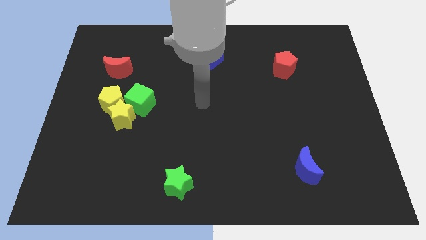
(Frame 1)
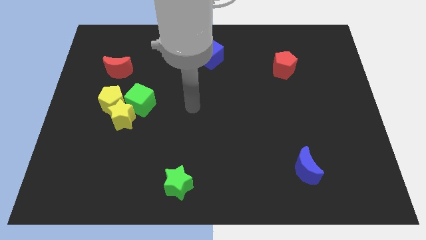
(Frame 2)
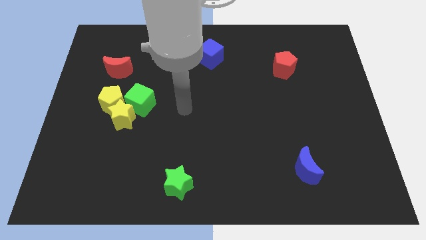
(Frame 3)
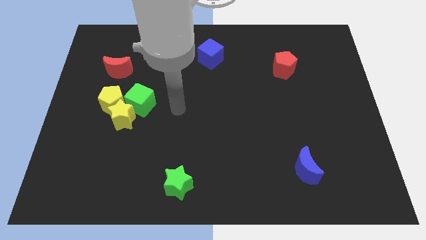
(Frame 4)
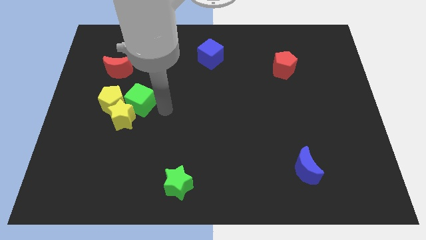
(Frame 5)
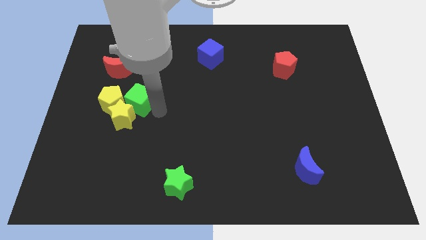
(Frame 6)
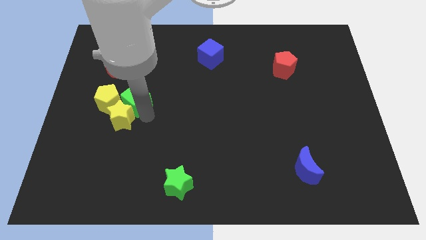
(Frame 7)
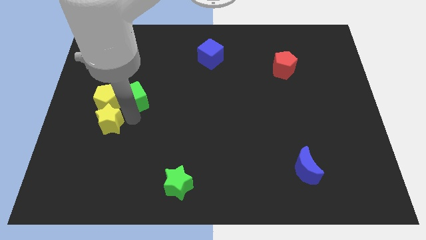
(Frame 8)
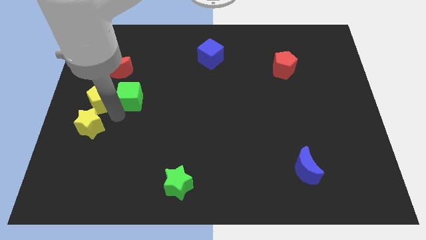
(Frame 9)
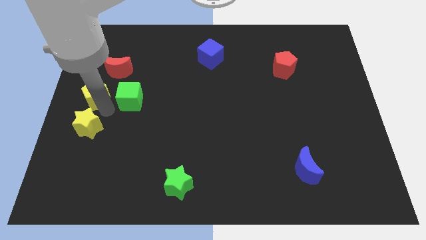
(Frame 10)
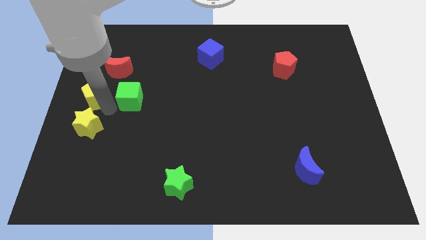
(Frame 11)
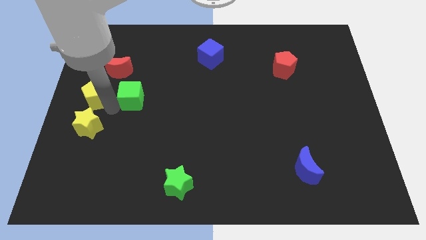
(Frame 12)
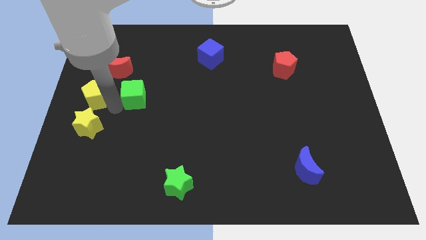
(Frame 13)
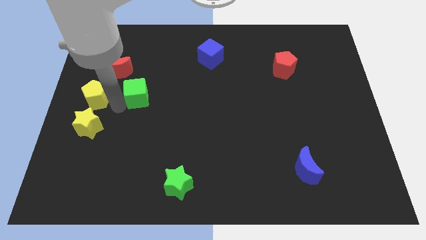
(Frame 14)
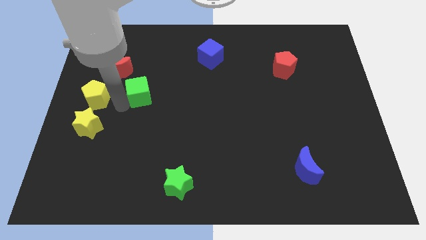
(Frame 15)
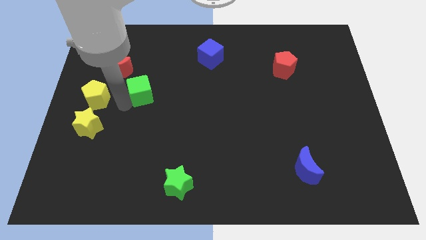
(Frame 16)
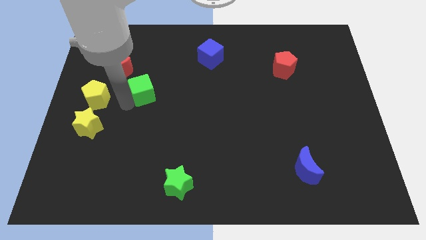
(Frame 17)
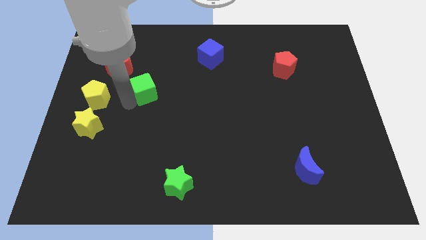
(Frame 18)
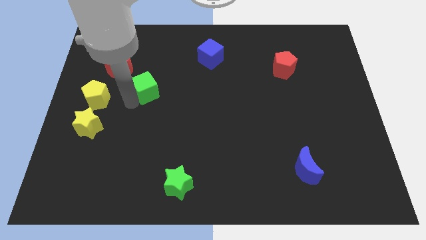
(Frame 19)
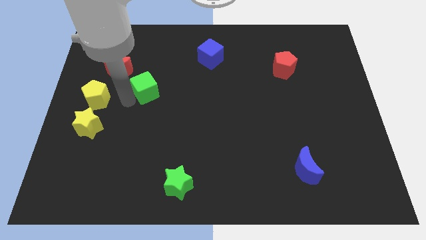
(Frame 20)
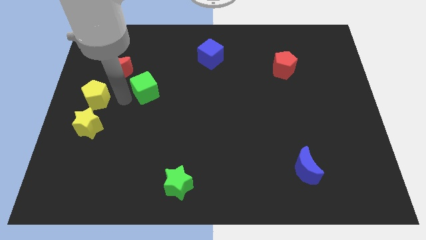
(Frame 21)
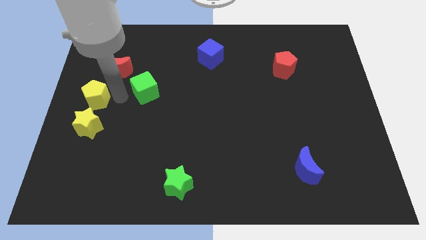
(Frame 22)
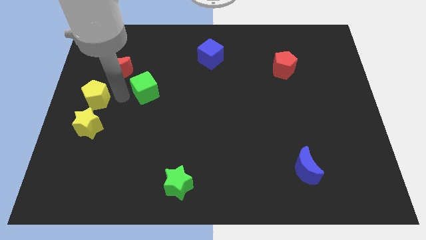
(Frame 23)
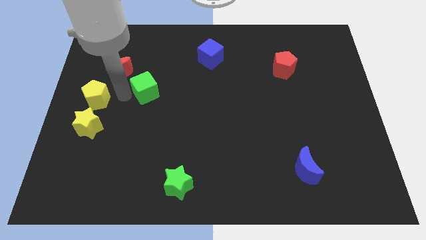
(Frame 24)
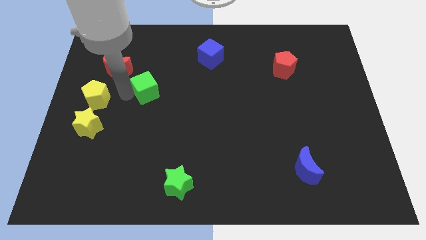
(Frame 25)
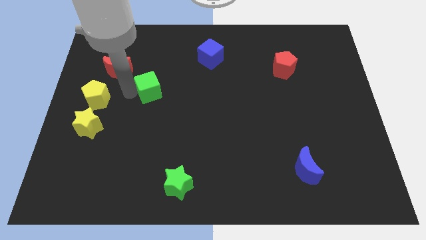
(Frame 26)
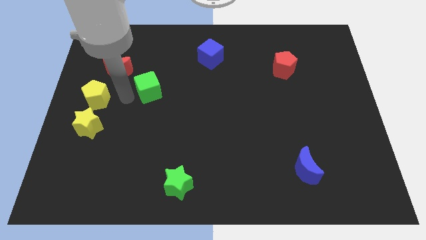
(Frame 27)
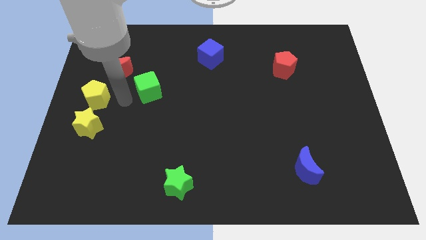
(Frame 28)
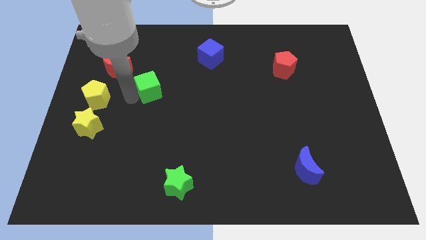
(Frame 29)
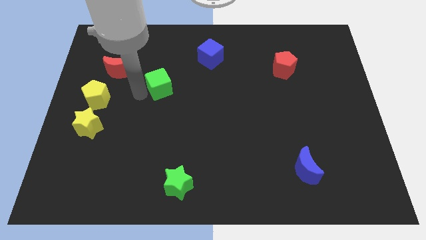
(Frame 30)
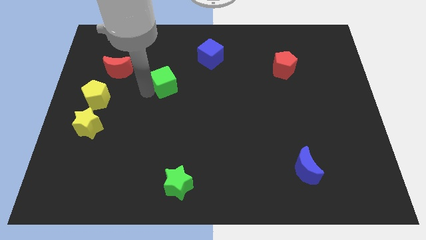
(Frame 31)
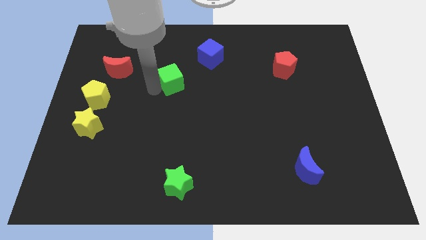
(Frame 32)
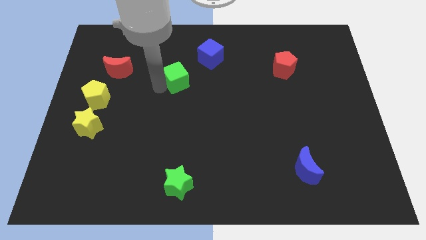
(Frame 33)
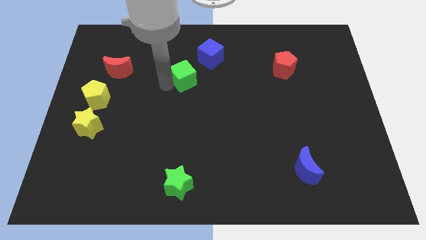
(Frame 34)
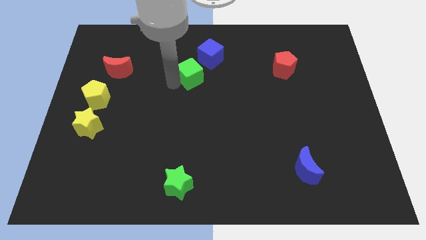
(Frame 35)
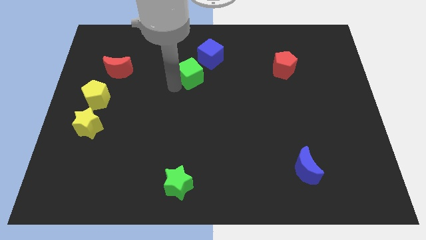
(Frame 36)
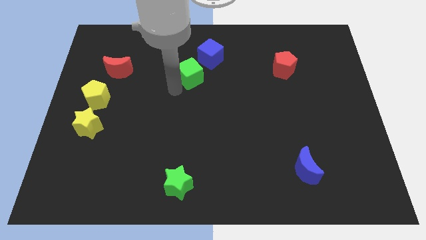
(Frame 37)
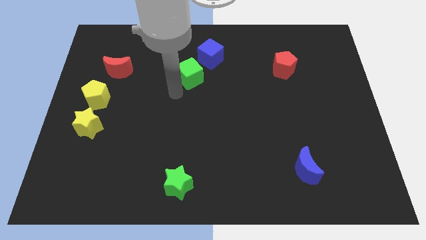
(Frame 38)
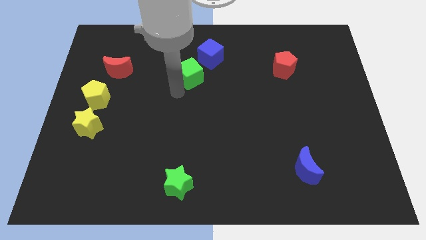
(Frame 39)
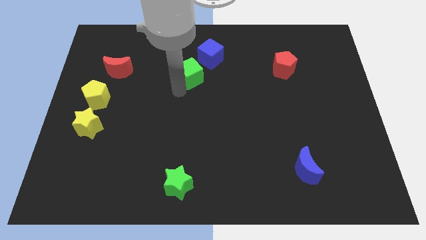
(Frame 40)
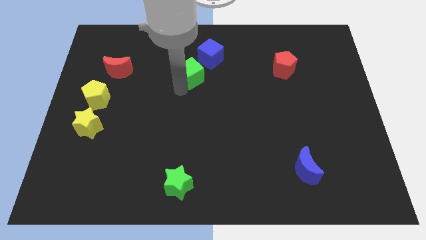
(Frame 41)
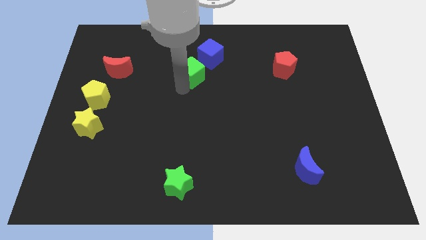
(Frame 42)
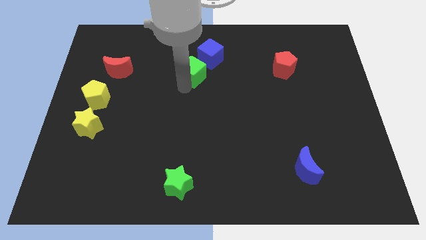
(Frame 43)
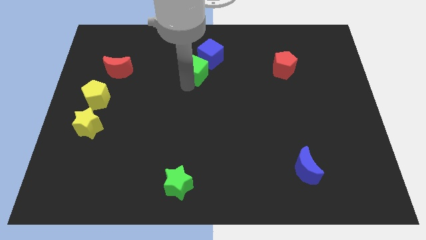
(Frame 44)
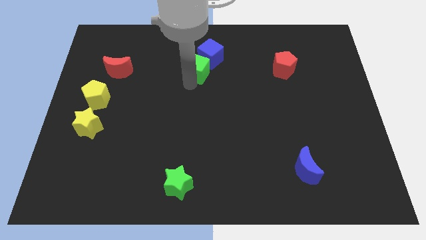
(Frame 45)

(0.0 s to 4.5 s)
move the green cube towards the blue cube

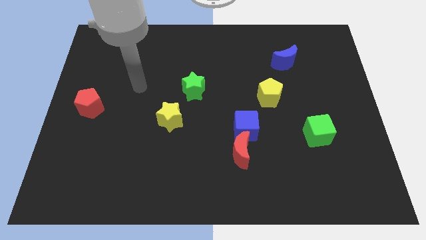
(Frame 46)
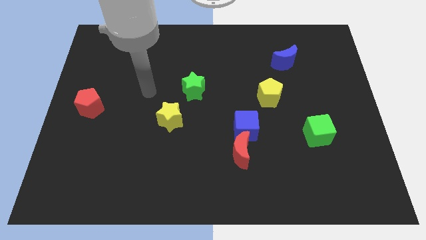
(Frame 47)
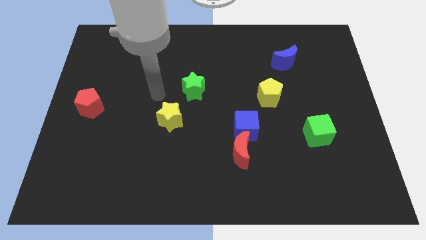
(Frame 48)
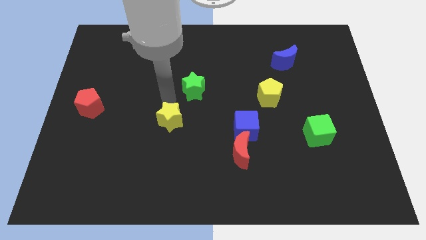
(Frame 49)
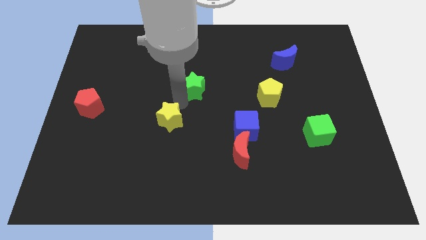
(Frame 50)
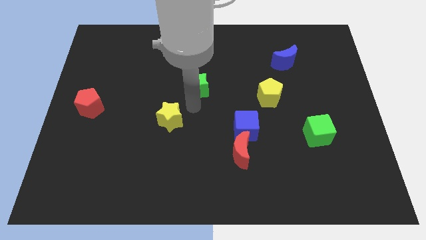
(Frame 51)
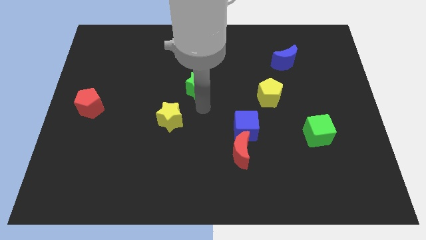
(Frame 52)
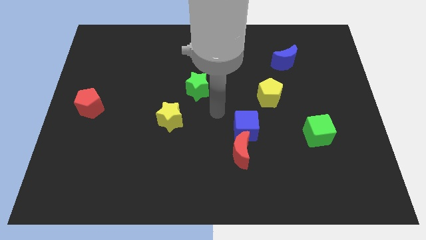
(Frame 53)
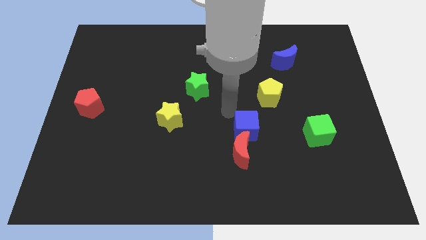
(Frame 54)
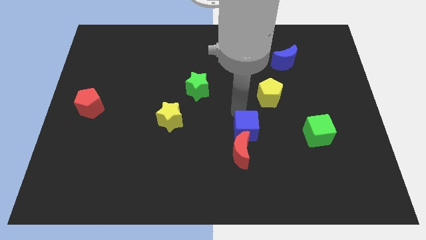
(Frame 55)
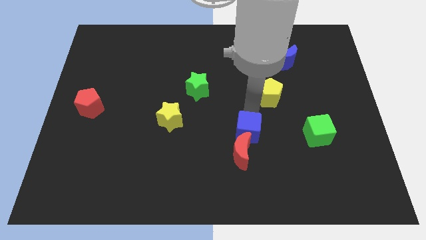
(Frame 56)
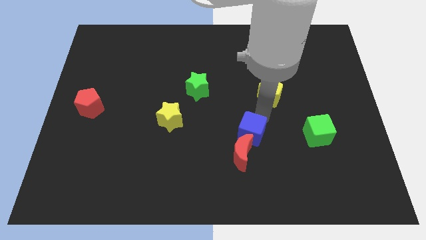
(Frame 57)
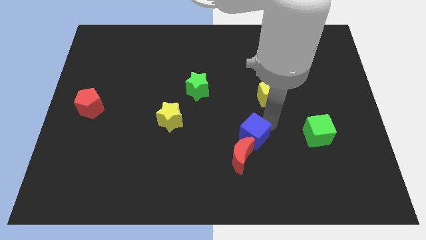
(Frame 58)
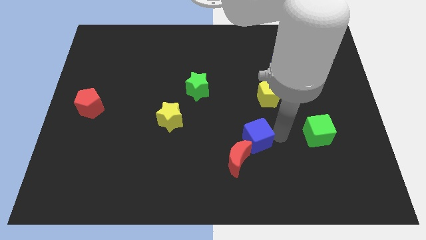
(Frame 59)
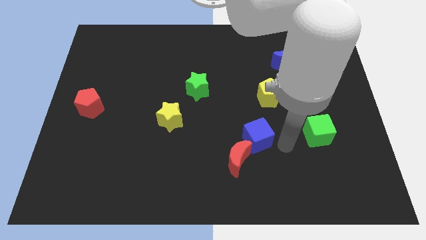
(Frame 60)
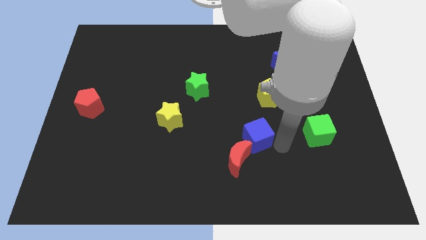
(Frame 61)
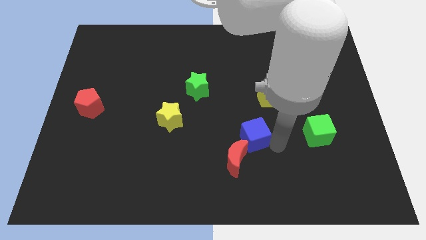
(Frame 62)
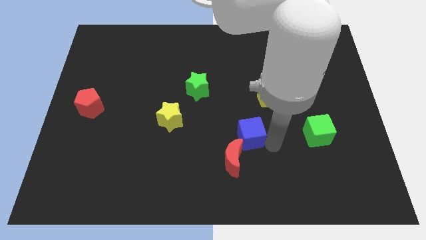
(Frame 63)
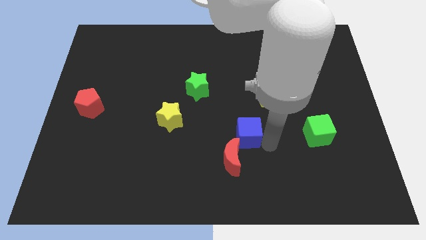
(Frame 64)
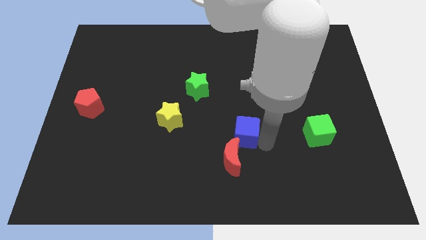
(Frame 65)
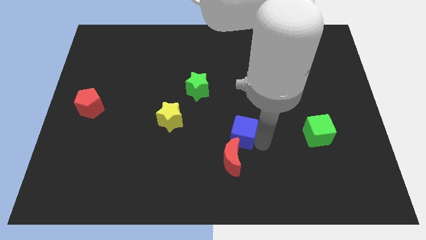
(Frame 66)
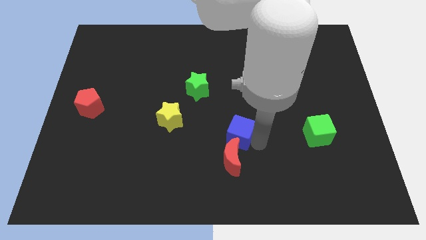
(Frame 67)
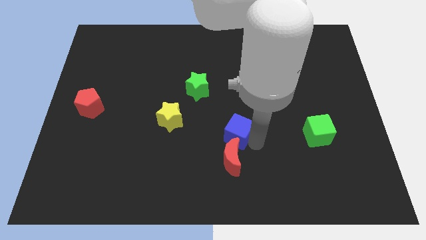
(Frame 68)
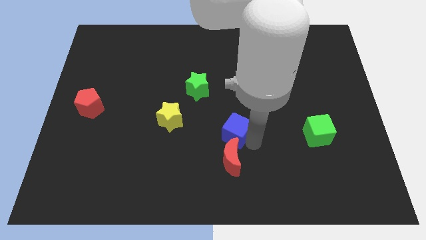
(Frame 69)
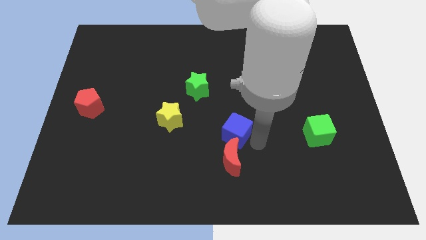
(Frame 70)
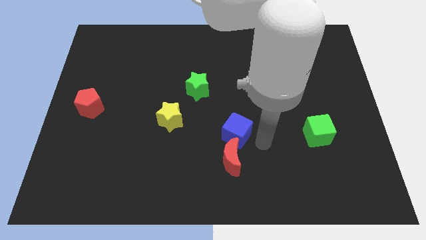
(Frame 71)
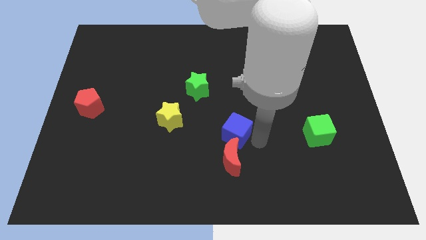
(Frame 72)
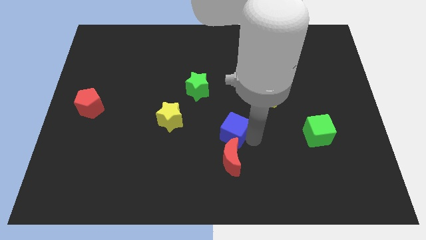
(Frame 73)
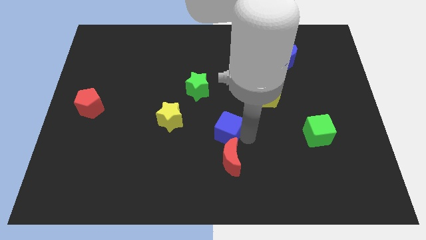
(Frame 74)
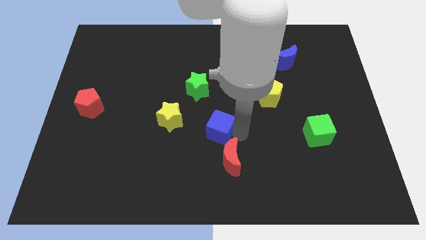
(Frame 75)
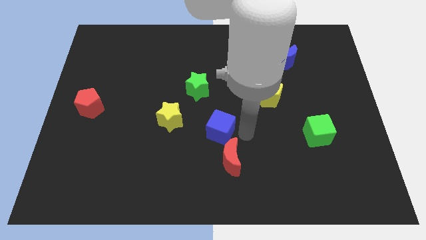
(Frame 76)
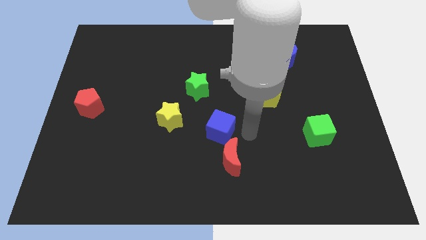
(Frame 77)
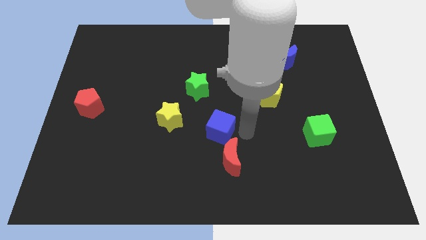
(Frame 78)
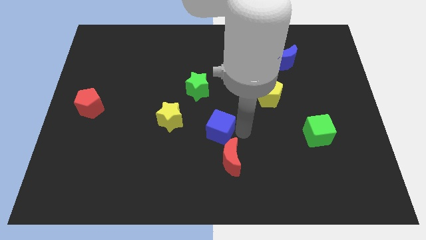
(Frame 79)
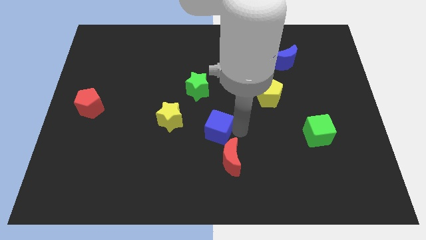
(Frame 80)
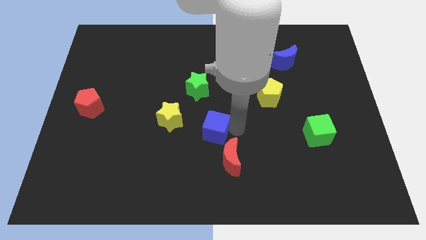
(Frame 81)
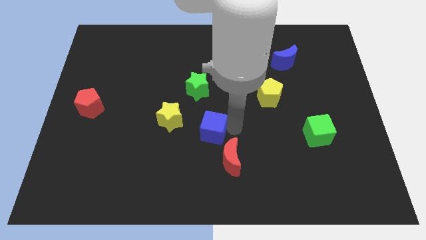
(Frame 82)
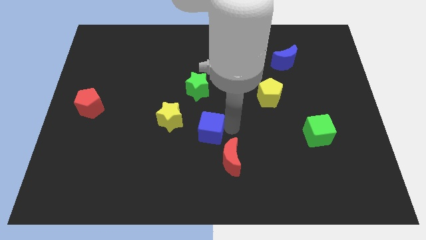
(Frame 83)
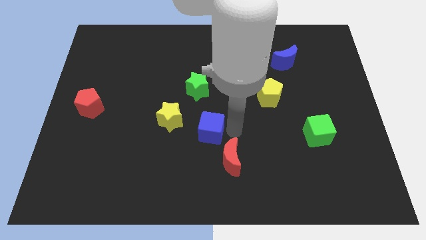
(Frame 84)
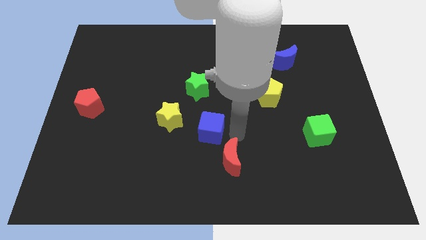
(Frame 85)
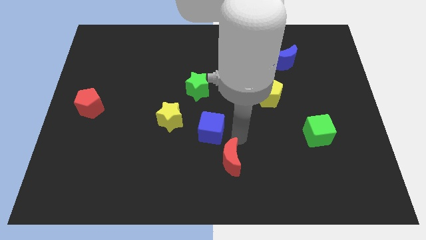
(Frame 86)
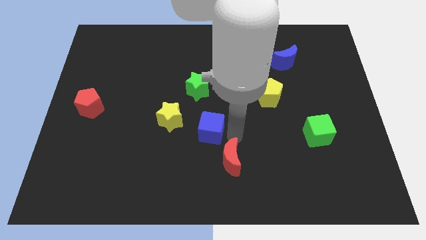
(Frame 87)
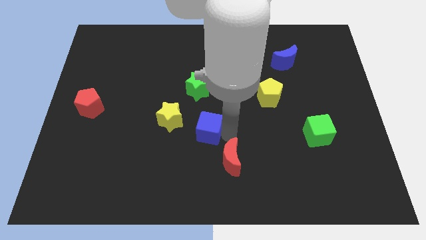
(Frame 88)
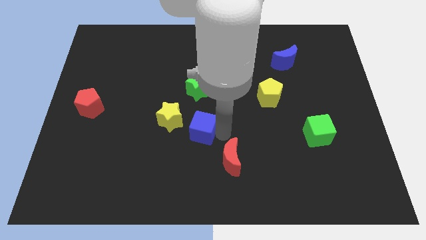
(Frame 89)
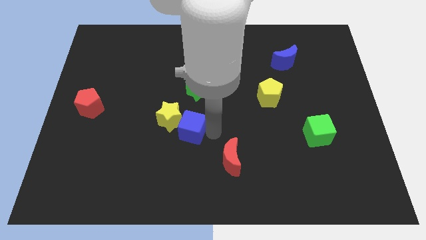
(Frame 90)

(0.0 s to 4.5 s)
put the blue cube next to the yellow star
